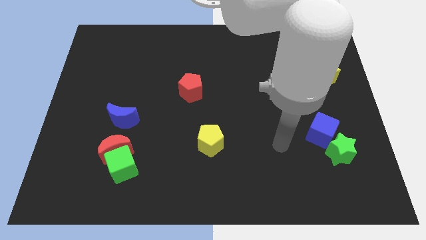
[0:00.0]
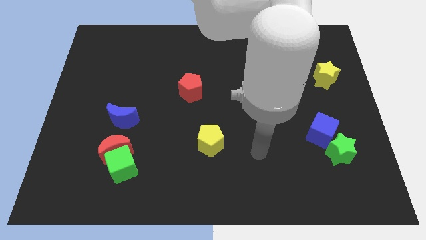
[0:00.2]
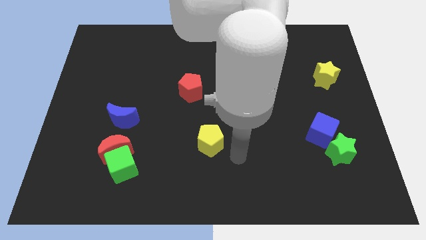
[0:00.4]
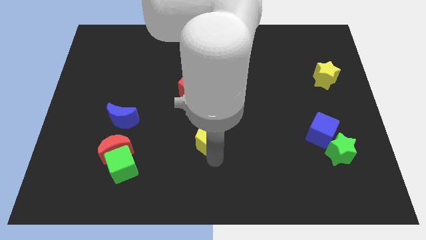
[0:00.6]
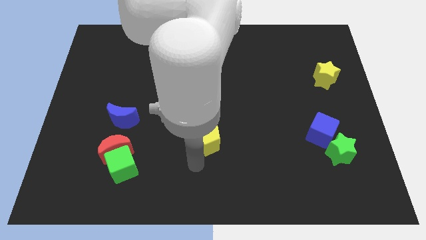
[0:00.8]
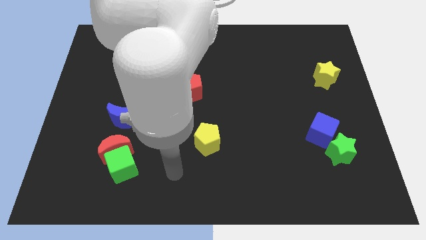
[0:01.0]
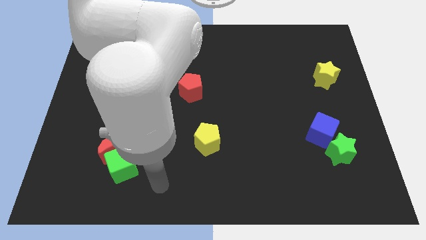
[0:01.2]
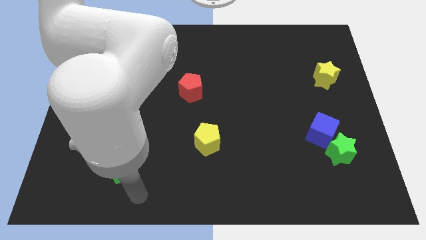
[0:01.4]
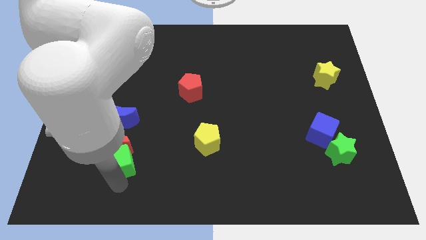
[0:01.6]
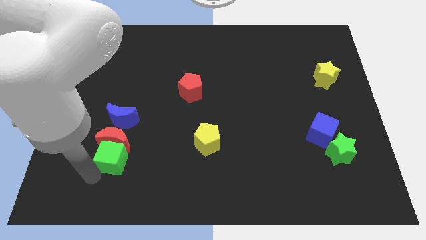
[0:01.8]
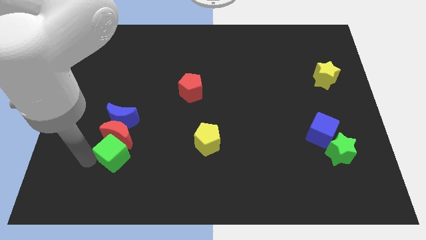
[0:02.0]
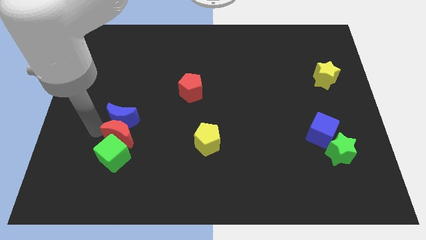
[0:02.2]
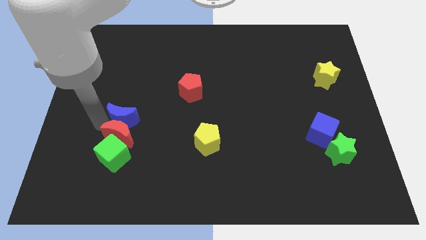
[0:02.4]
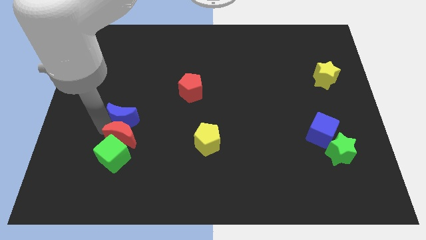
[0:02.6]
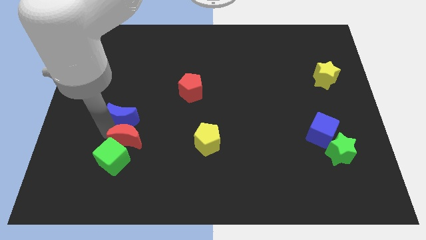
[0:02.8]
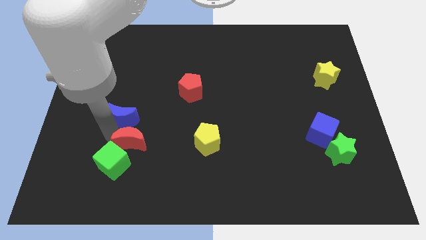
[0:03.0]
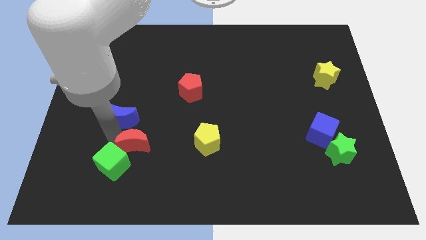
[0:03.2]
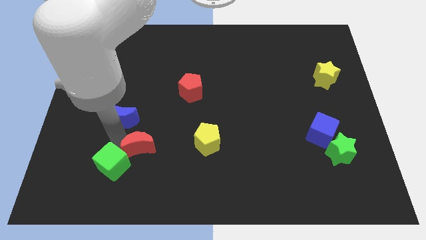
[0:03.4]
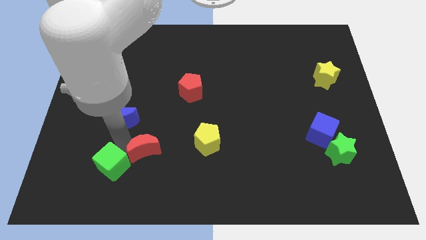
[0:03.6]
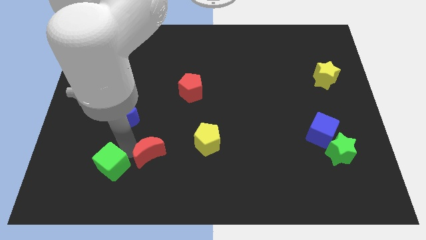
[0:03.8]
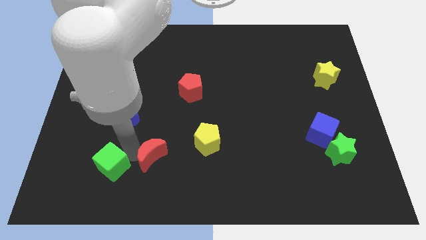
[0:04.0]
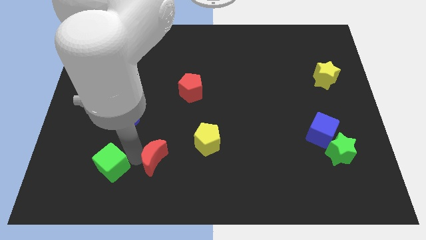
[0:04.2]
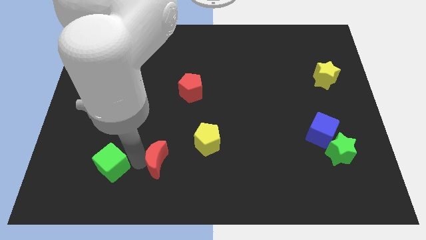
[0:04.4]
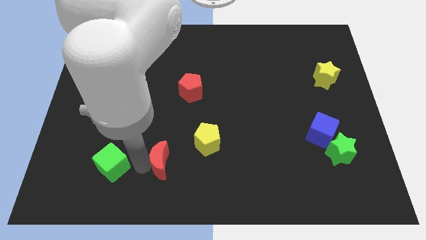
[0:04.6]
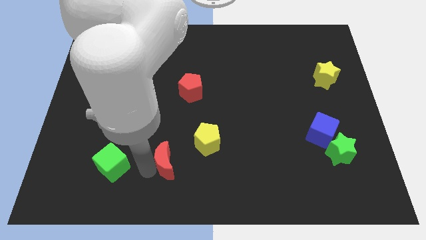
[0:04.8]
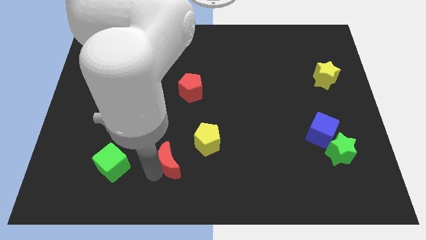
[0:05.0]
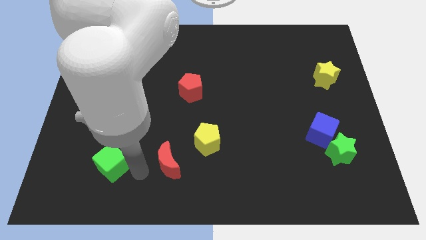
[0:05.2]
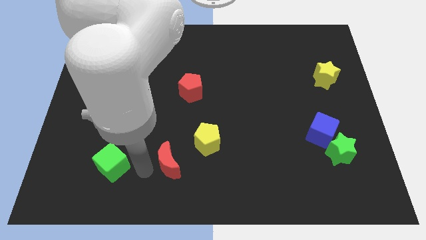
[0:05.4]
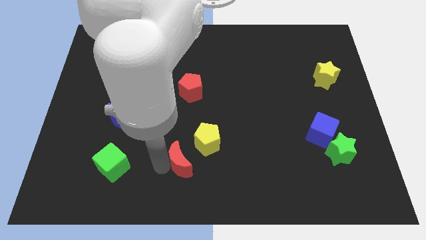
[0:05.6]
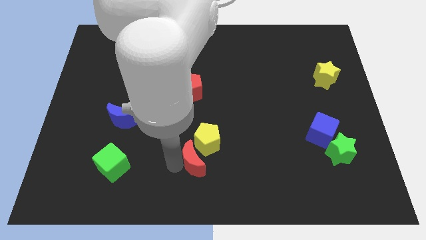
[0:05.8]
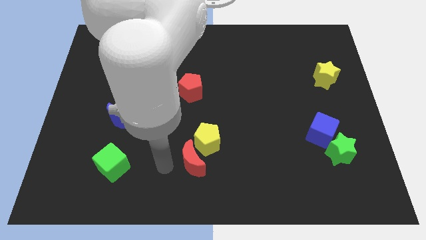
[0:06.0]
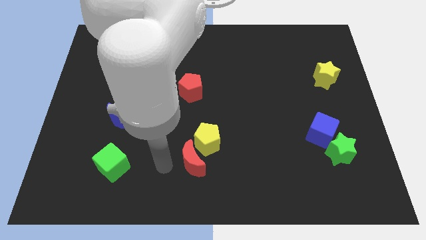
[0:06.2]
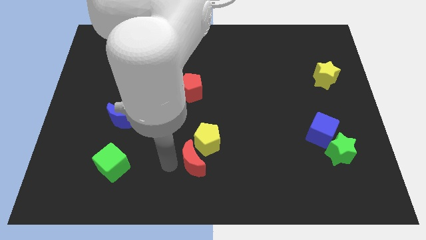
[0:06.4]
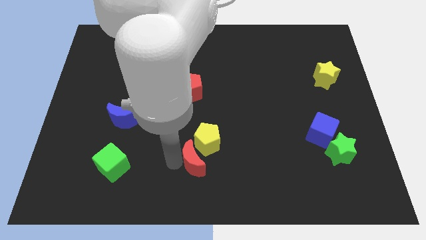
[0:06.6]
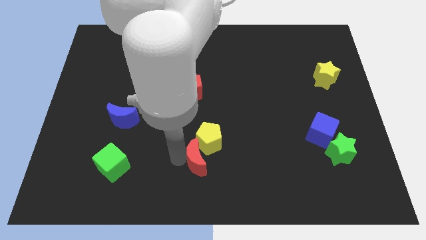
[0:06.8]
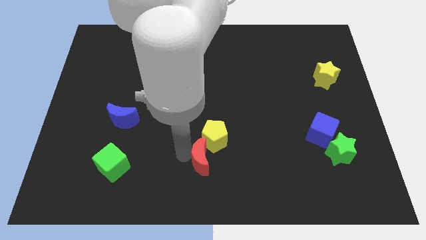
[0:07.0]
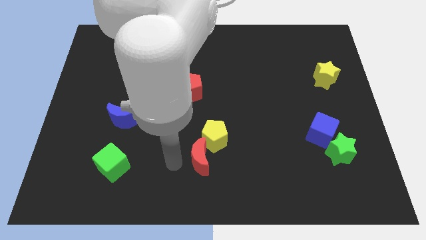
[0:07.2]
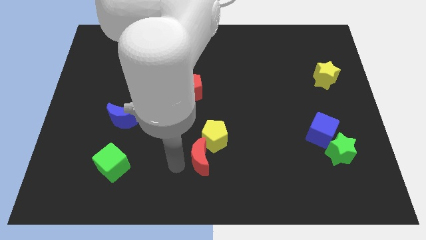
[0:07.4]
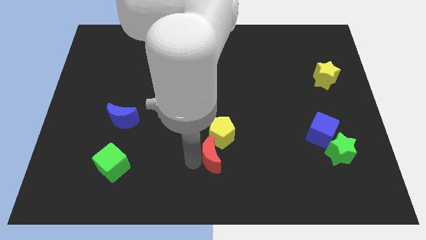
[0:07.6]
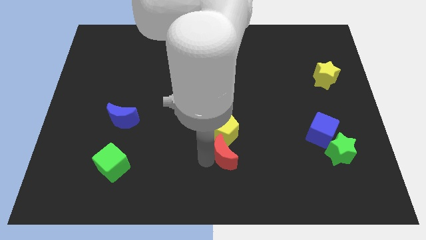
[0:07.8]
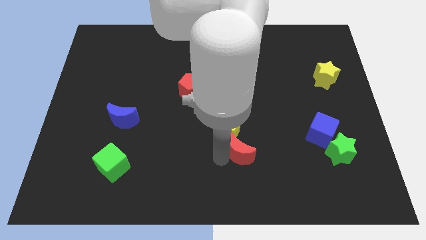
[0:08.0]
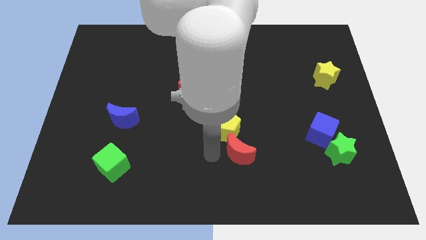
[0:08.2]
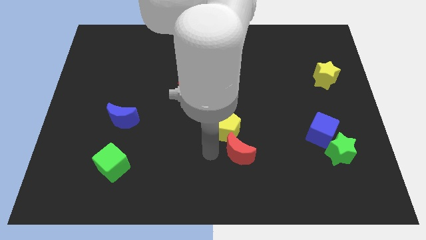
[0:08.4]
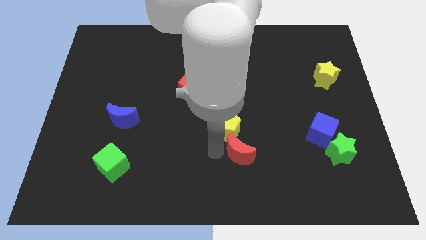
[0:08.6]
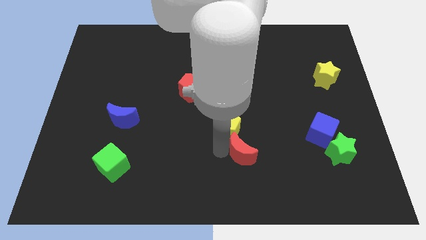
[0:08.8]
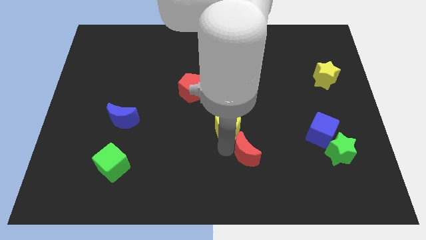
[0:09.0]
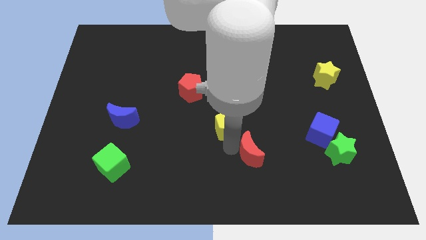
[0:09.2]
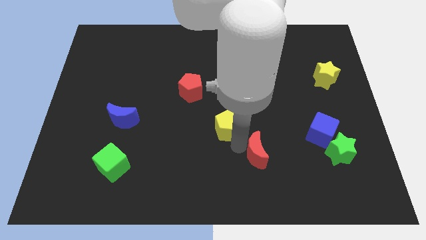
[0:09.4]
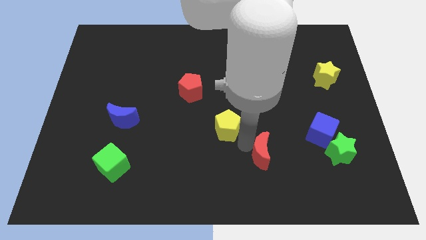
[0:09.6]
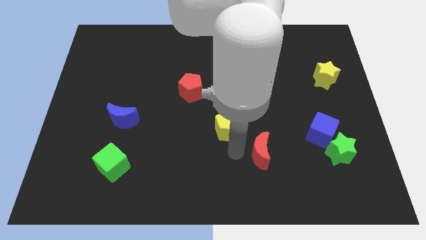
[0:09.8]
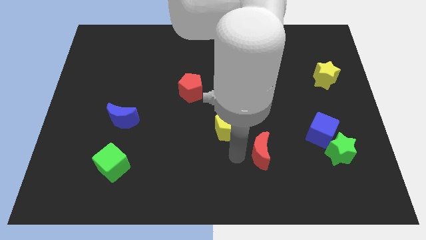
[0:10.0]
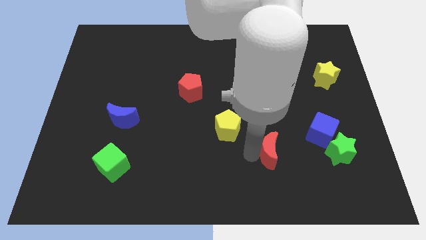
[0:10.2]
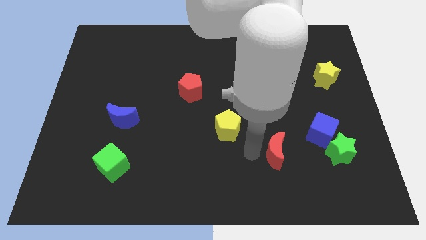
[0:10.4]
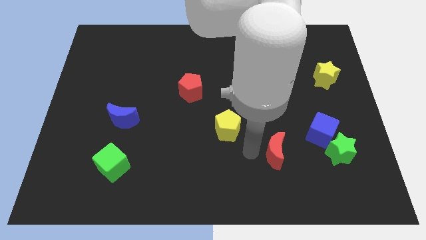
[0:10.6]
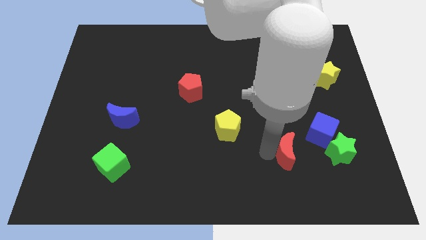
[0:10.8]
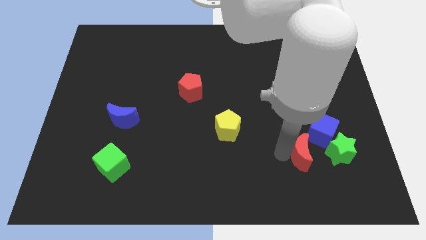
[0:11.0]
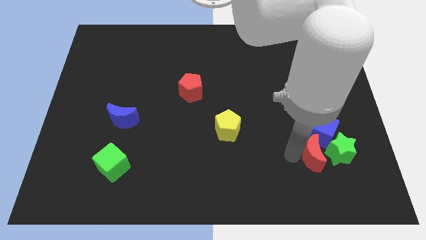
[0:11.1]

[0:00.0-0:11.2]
push the red moon to the green star

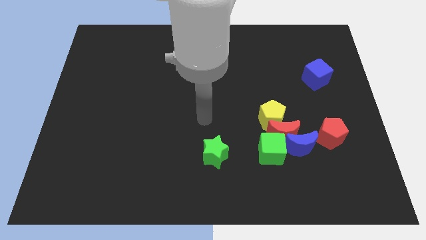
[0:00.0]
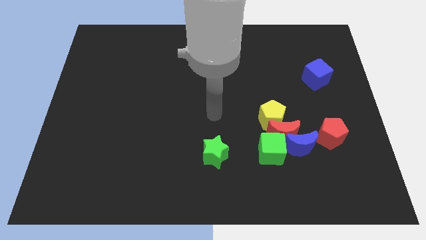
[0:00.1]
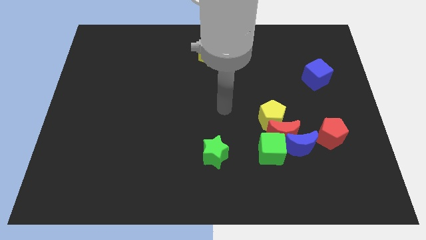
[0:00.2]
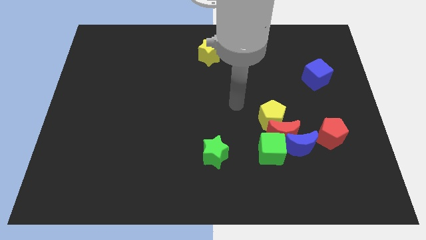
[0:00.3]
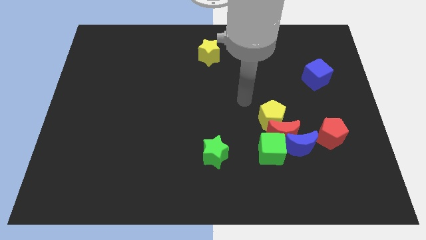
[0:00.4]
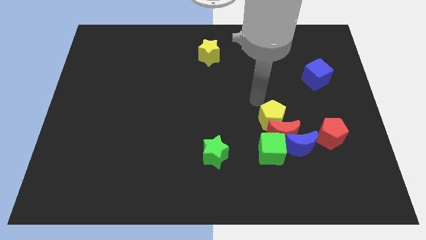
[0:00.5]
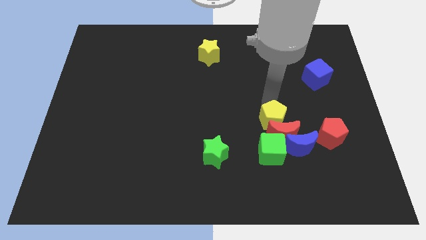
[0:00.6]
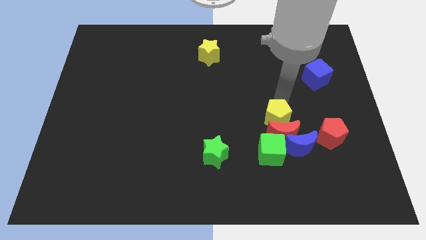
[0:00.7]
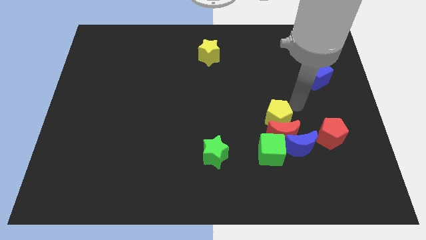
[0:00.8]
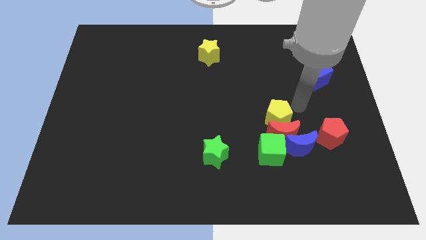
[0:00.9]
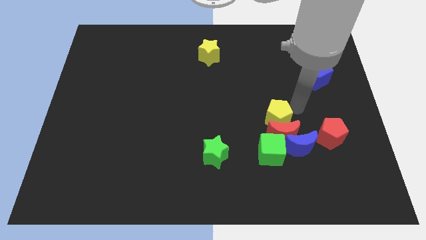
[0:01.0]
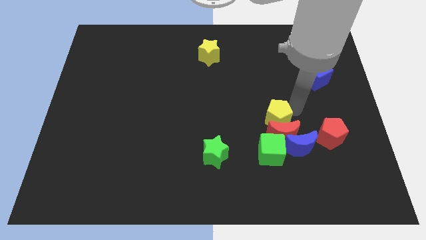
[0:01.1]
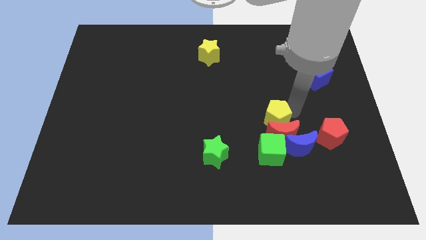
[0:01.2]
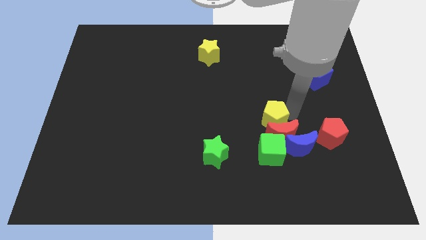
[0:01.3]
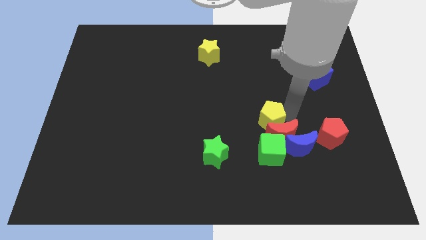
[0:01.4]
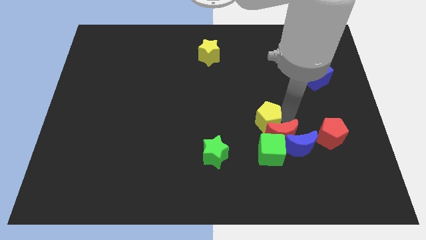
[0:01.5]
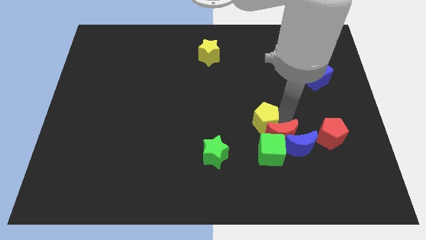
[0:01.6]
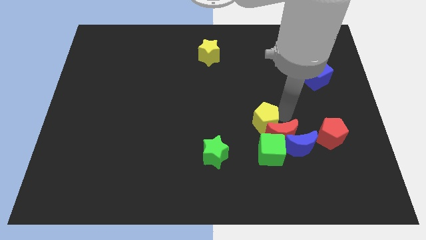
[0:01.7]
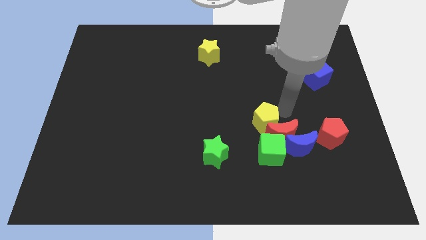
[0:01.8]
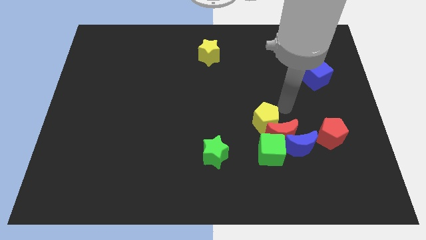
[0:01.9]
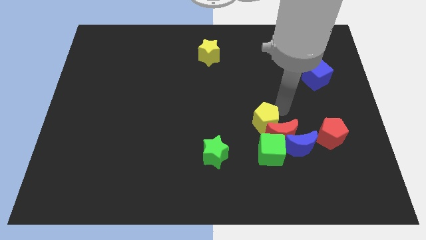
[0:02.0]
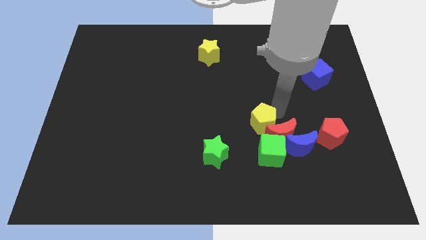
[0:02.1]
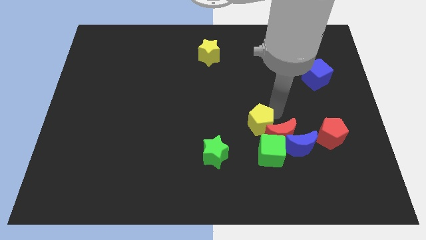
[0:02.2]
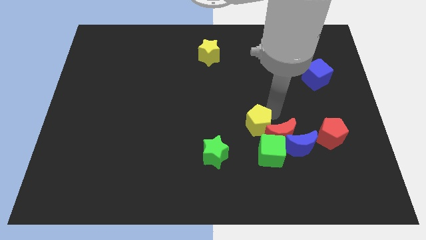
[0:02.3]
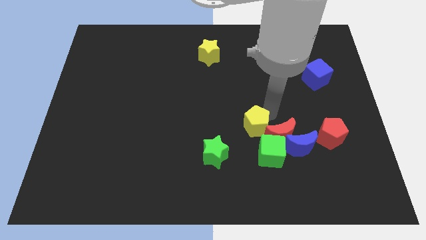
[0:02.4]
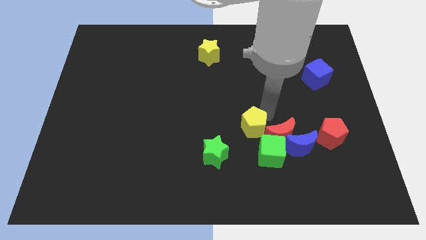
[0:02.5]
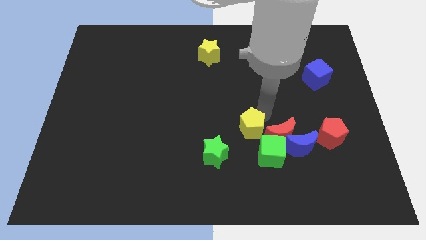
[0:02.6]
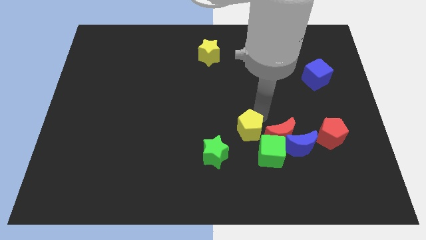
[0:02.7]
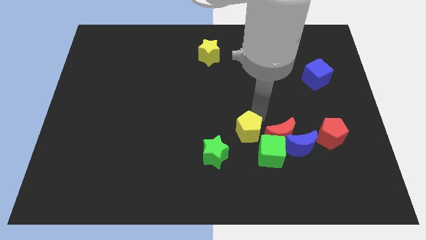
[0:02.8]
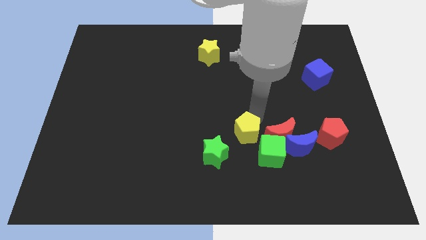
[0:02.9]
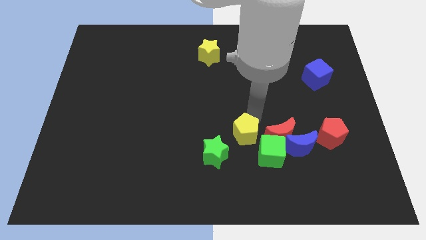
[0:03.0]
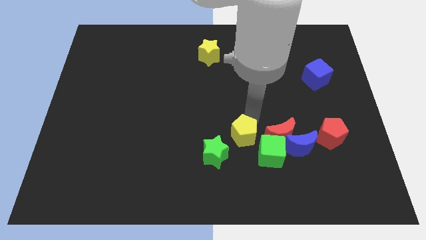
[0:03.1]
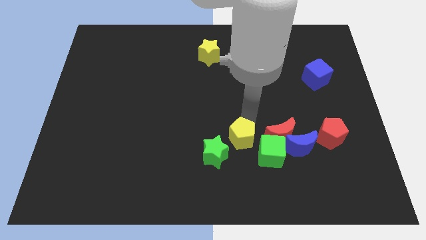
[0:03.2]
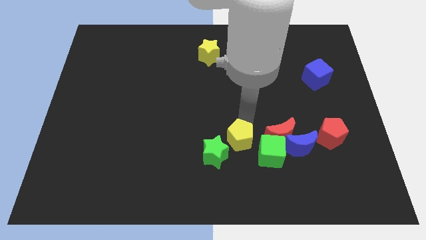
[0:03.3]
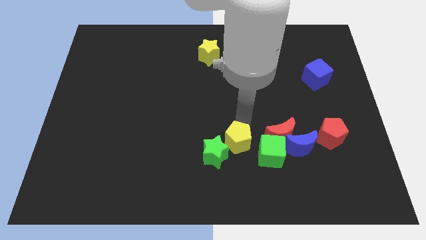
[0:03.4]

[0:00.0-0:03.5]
slide the yellow pentagon towards the green star
